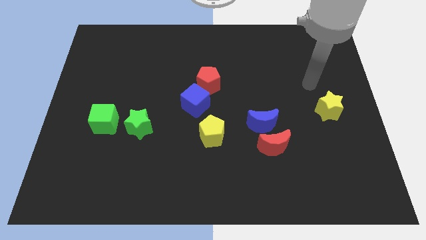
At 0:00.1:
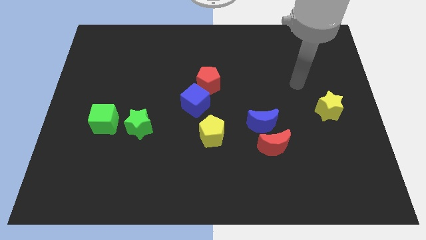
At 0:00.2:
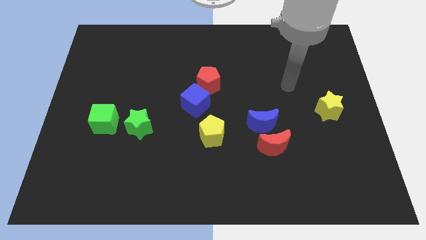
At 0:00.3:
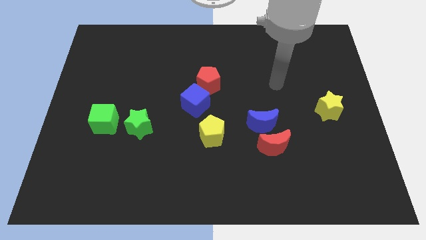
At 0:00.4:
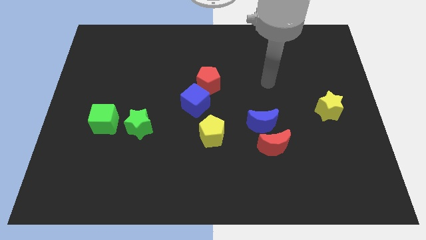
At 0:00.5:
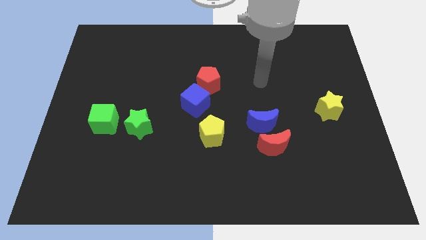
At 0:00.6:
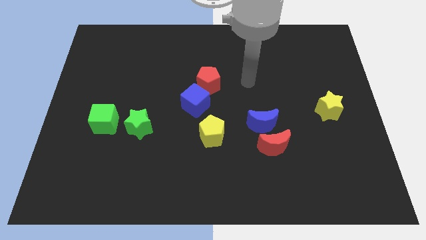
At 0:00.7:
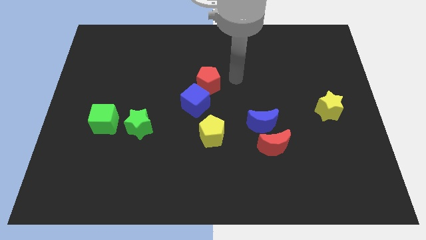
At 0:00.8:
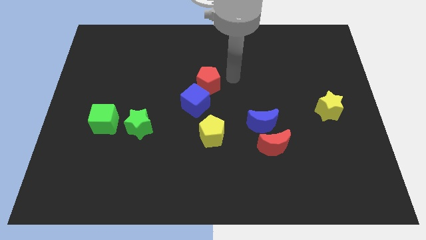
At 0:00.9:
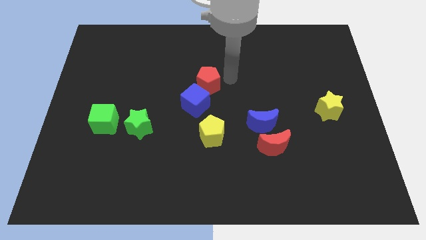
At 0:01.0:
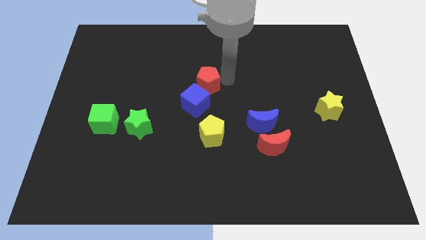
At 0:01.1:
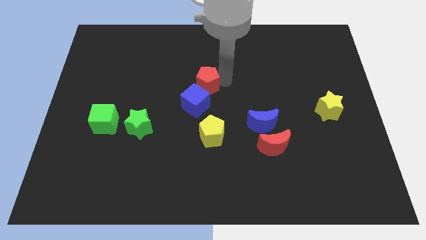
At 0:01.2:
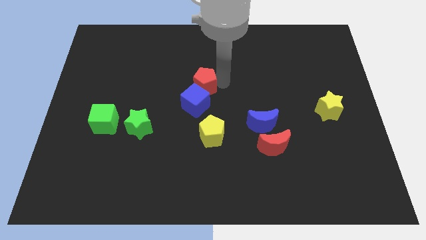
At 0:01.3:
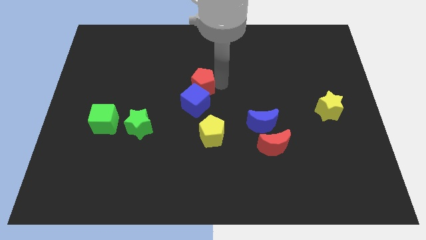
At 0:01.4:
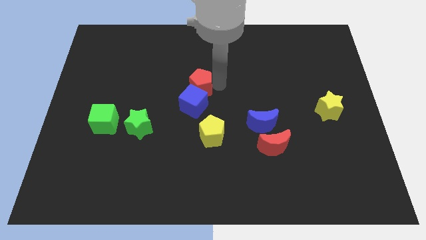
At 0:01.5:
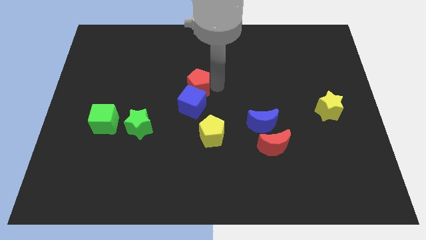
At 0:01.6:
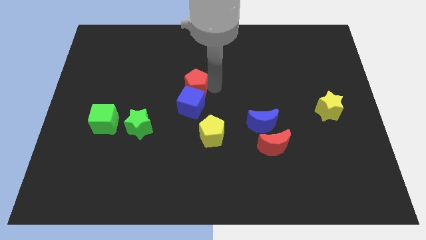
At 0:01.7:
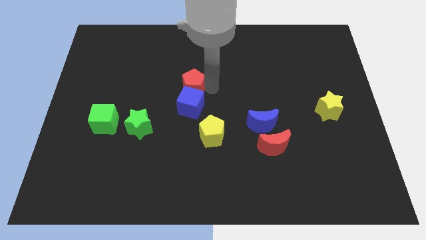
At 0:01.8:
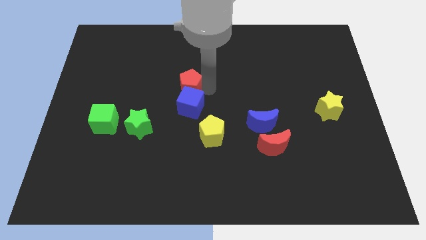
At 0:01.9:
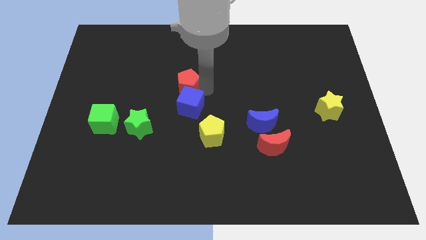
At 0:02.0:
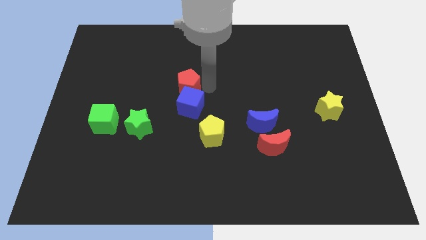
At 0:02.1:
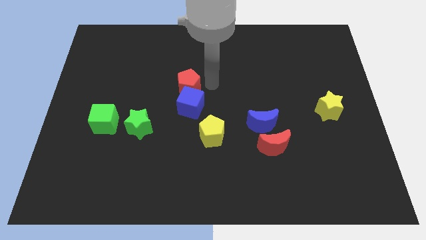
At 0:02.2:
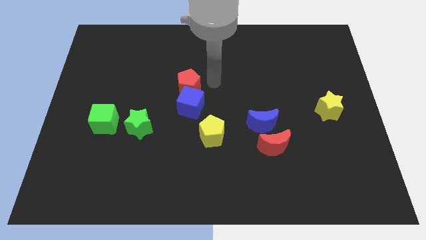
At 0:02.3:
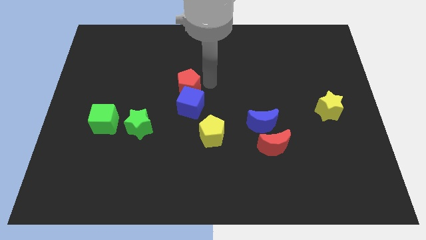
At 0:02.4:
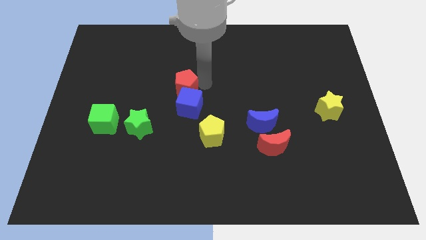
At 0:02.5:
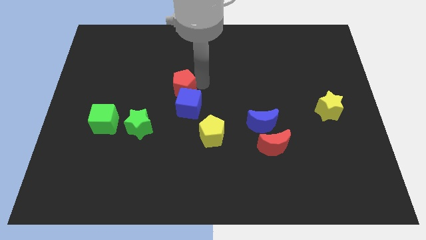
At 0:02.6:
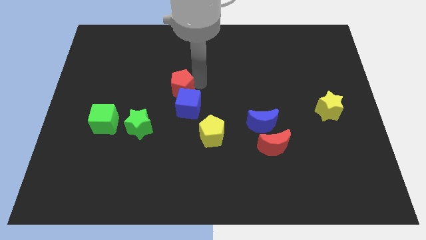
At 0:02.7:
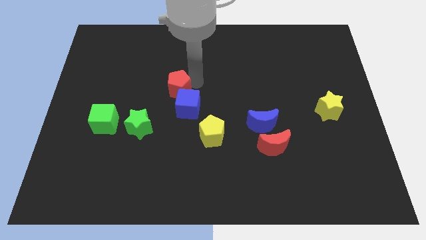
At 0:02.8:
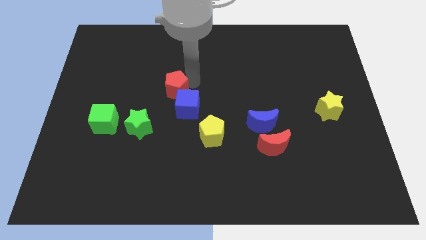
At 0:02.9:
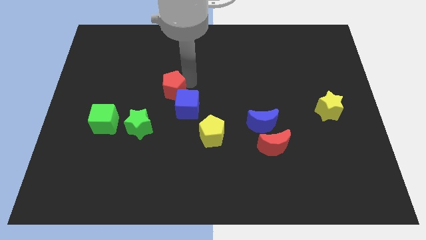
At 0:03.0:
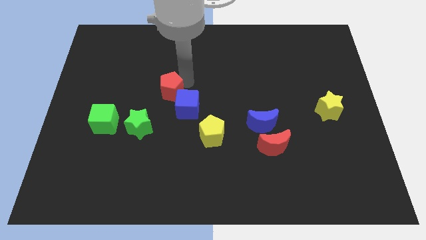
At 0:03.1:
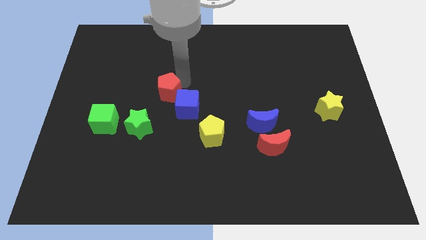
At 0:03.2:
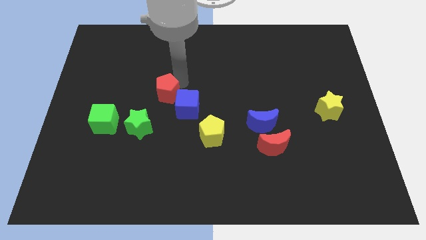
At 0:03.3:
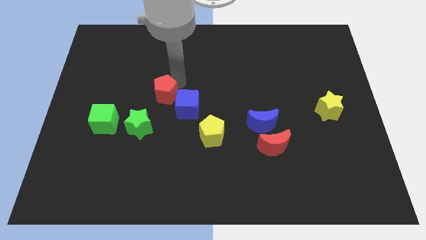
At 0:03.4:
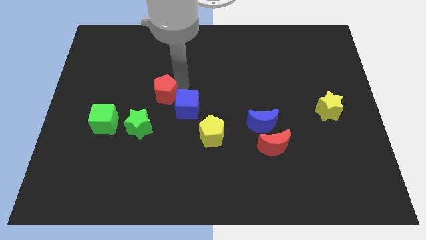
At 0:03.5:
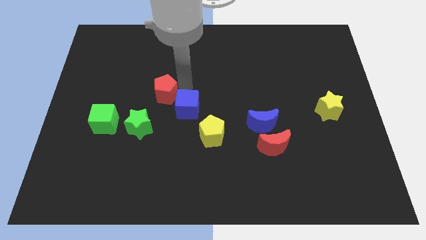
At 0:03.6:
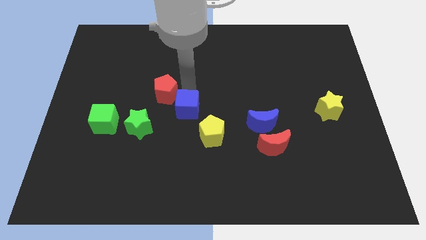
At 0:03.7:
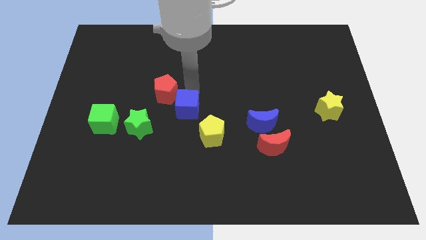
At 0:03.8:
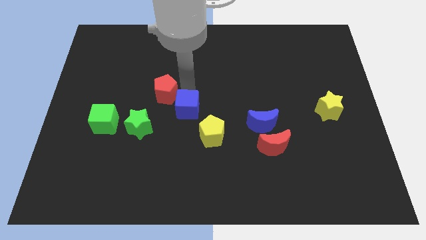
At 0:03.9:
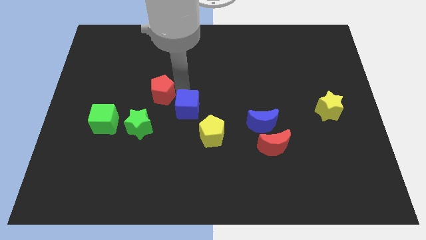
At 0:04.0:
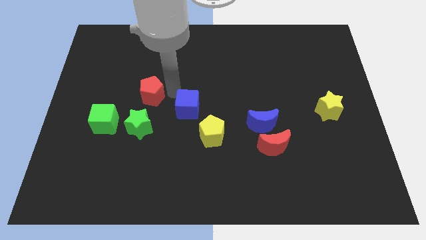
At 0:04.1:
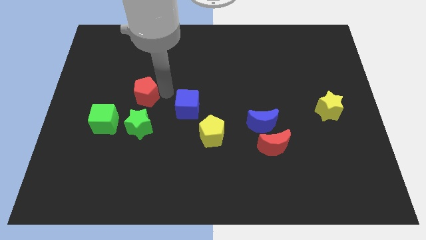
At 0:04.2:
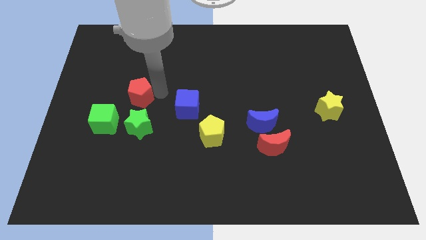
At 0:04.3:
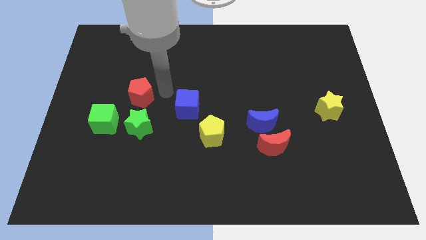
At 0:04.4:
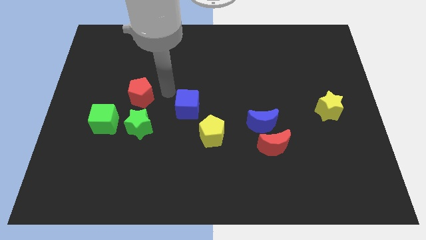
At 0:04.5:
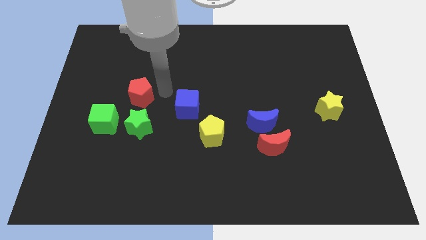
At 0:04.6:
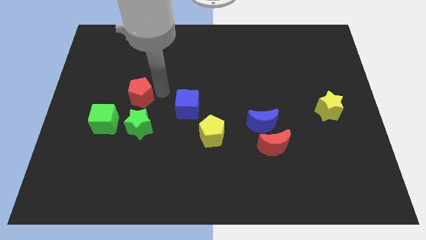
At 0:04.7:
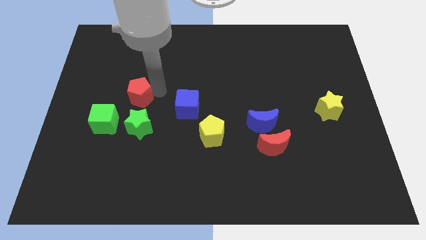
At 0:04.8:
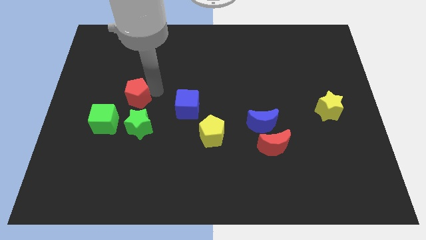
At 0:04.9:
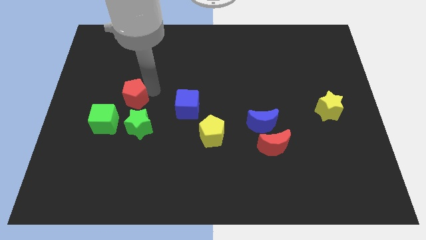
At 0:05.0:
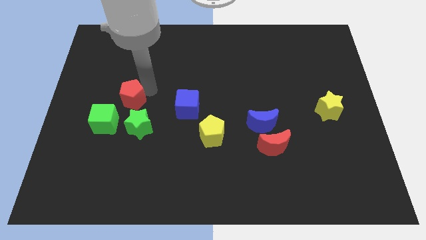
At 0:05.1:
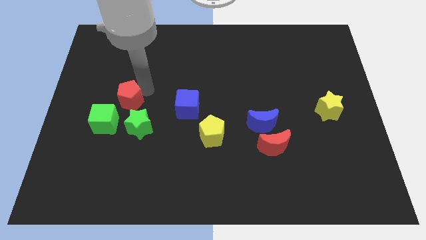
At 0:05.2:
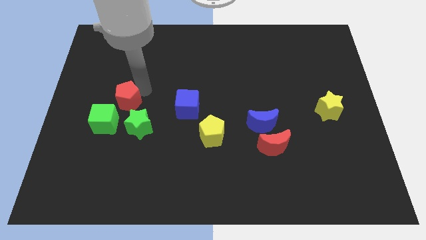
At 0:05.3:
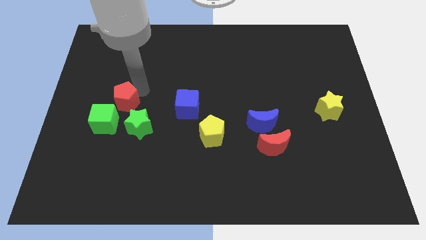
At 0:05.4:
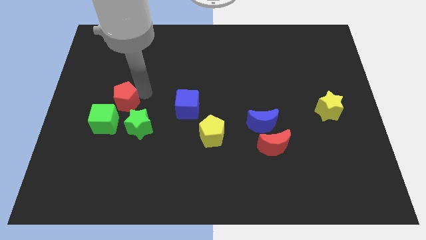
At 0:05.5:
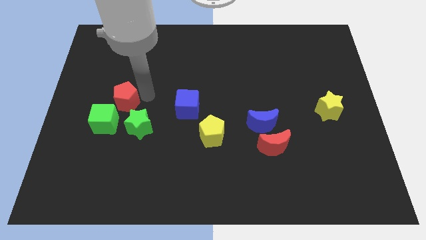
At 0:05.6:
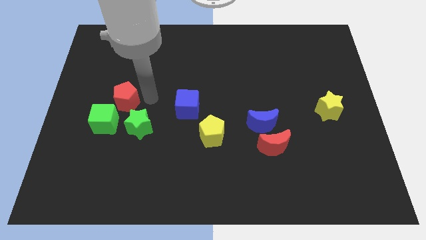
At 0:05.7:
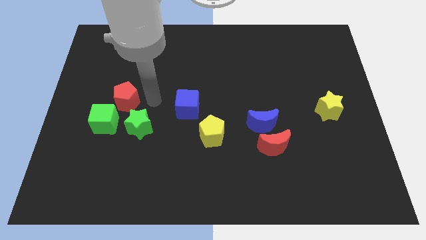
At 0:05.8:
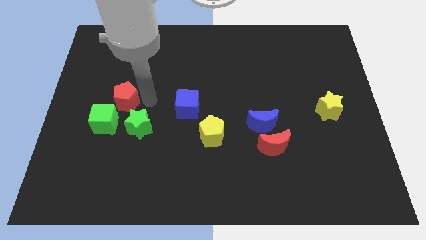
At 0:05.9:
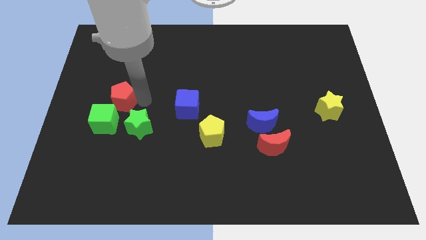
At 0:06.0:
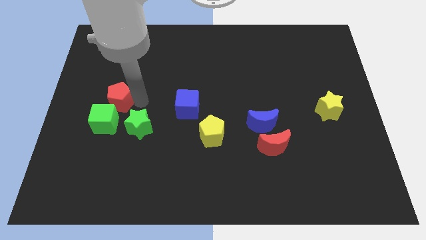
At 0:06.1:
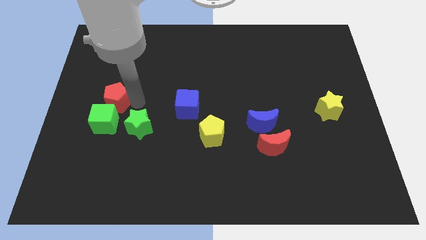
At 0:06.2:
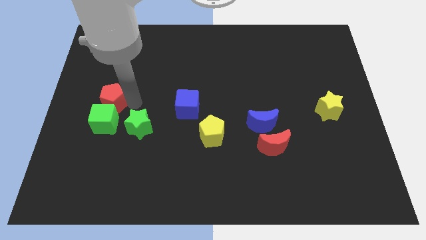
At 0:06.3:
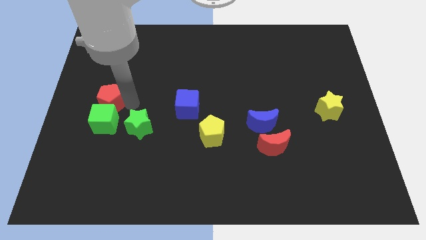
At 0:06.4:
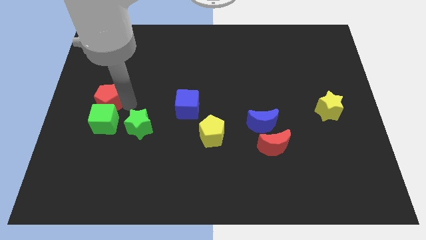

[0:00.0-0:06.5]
push the red pentagon to the center left

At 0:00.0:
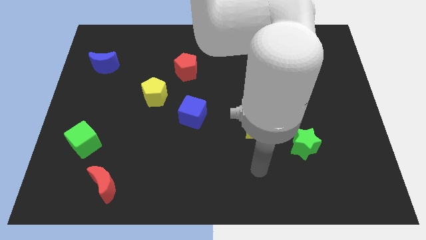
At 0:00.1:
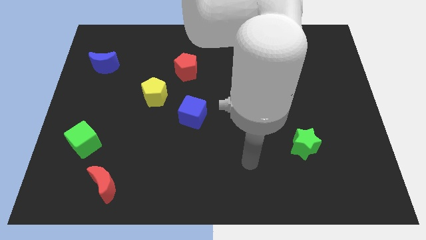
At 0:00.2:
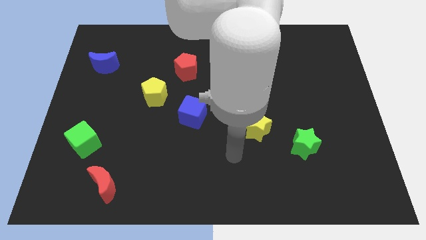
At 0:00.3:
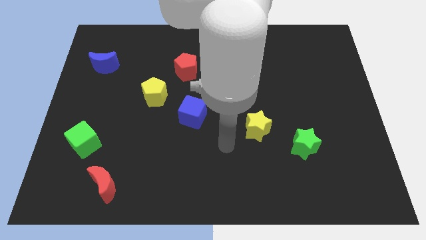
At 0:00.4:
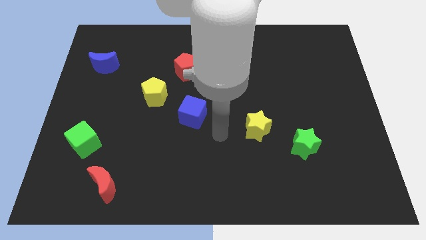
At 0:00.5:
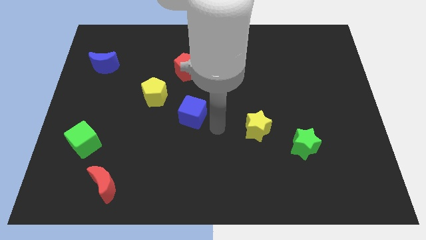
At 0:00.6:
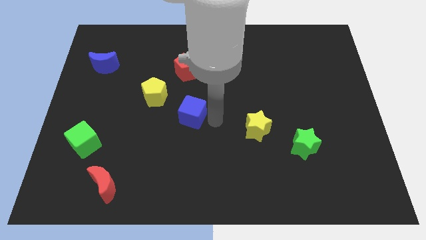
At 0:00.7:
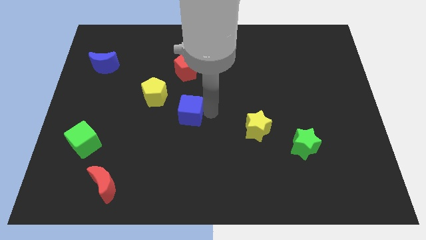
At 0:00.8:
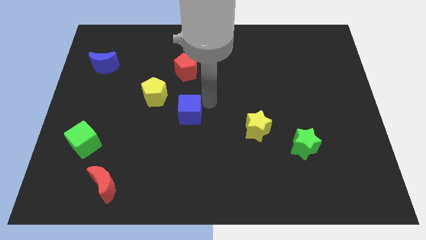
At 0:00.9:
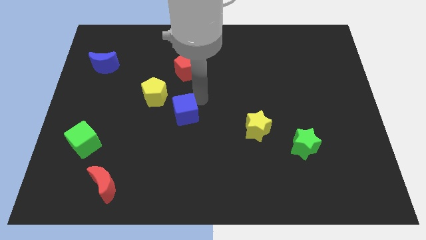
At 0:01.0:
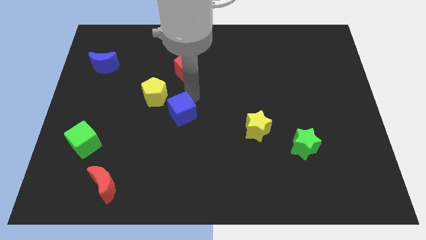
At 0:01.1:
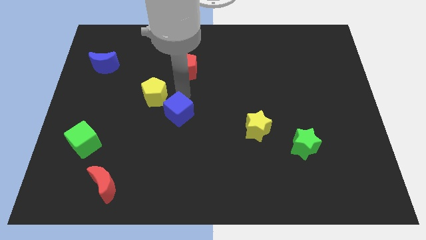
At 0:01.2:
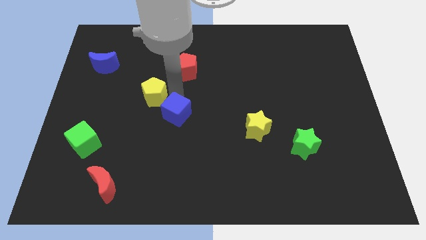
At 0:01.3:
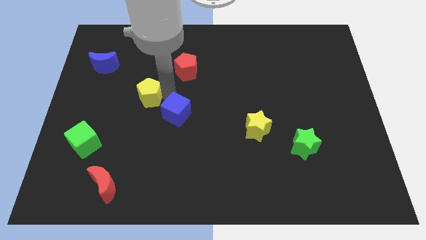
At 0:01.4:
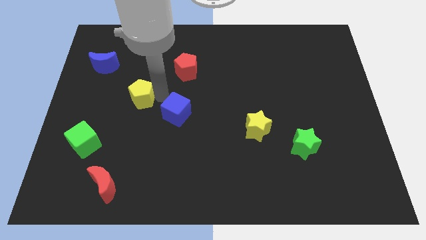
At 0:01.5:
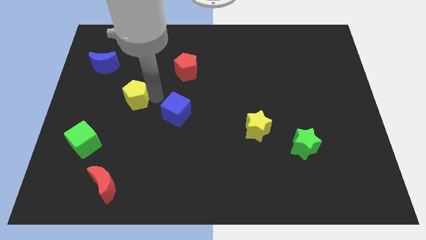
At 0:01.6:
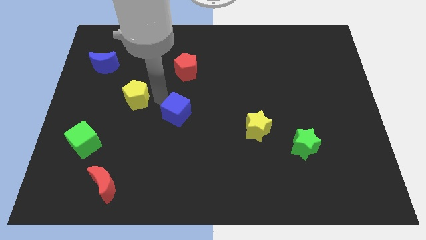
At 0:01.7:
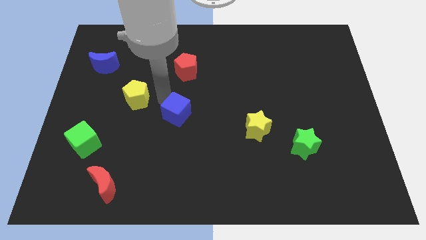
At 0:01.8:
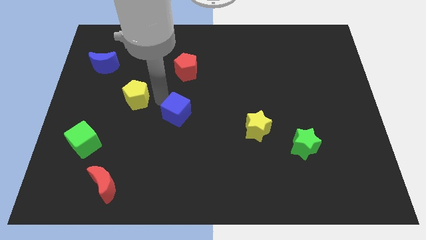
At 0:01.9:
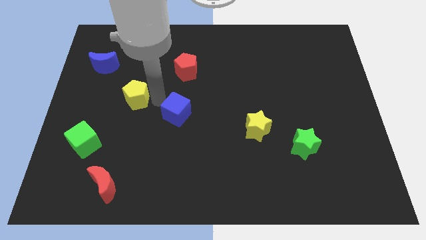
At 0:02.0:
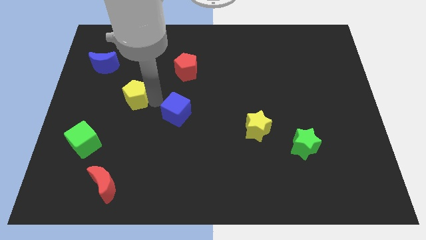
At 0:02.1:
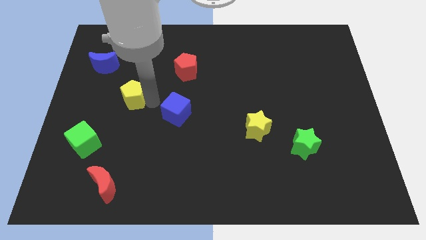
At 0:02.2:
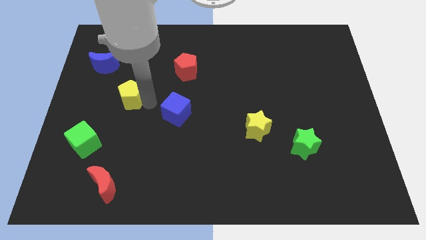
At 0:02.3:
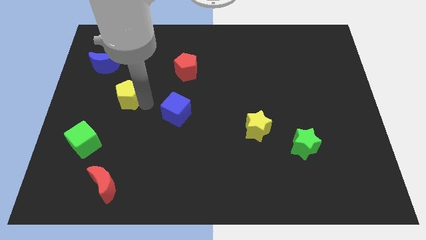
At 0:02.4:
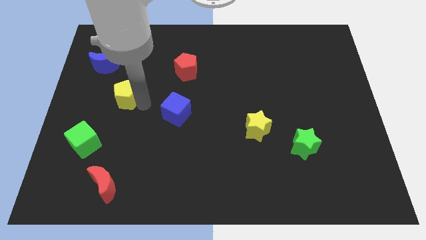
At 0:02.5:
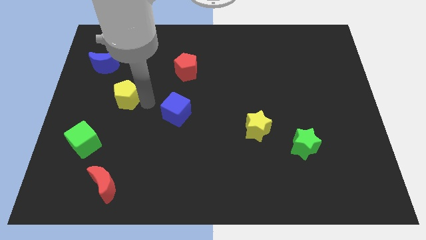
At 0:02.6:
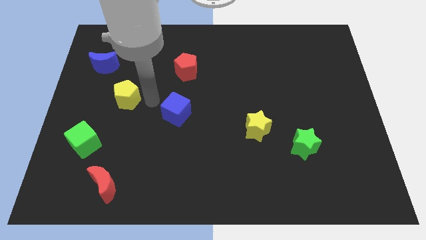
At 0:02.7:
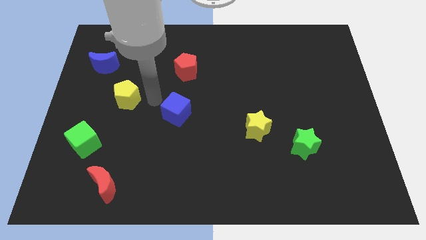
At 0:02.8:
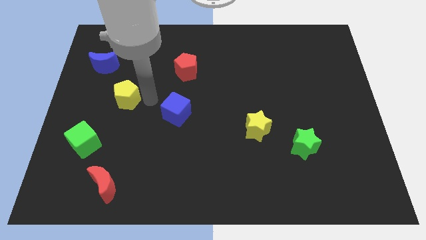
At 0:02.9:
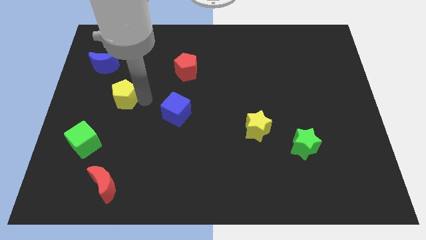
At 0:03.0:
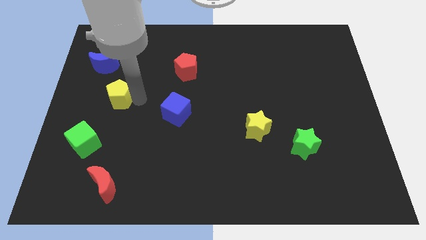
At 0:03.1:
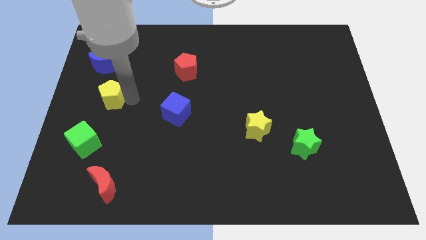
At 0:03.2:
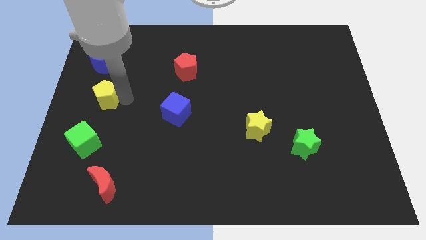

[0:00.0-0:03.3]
slide the yellow pentagon to the center left
